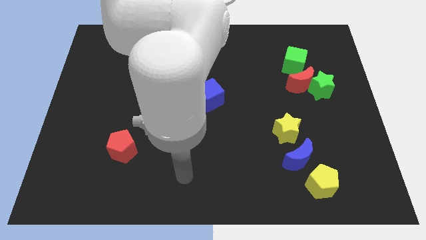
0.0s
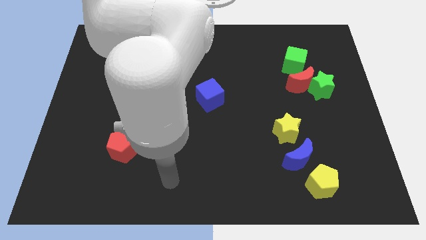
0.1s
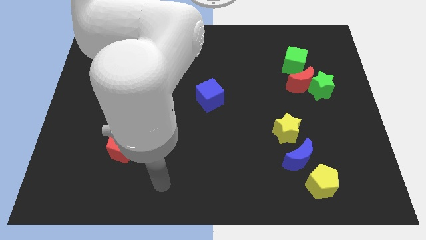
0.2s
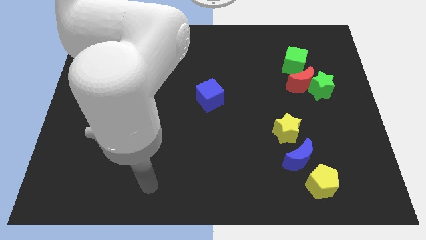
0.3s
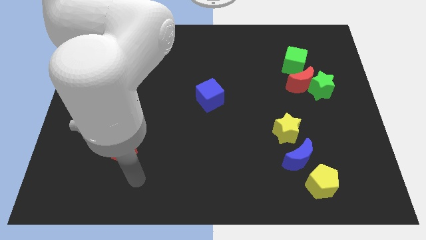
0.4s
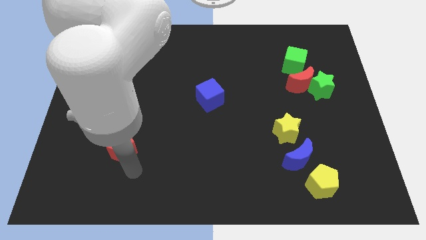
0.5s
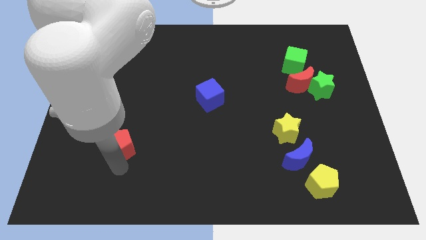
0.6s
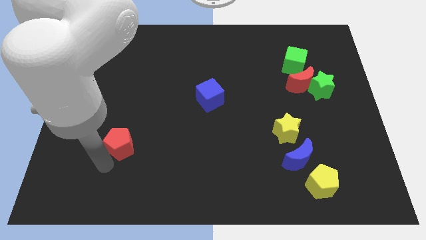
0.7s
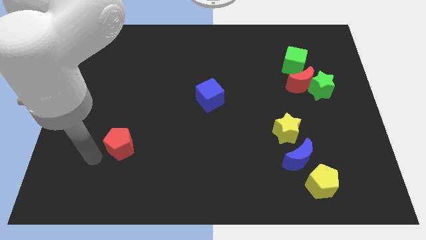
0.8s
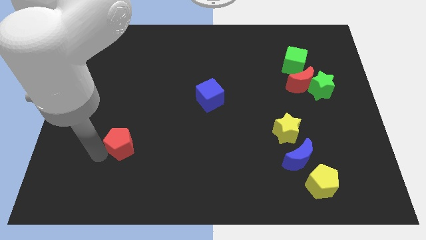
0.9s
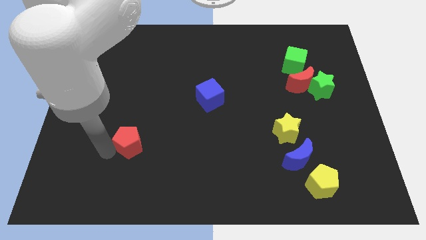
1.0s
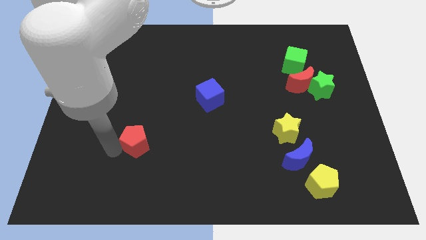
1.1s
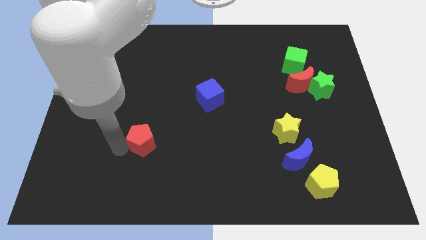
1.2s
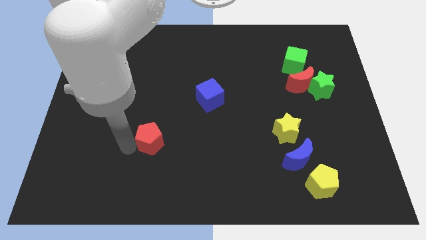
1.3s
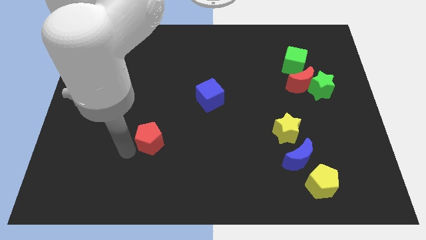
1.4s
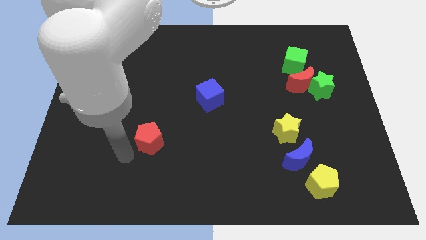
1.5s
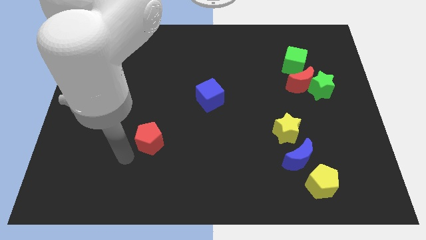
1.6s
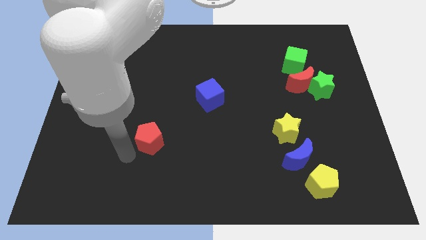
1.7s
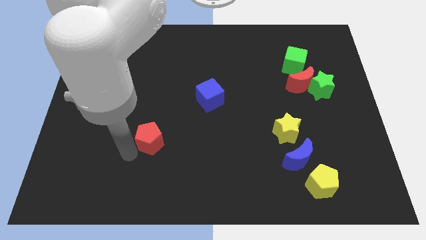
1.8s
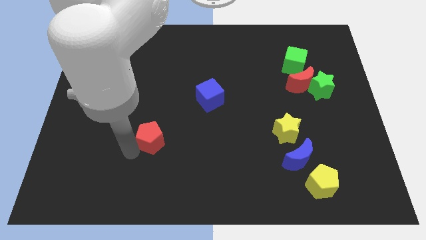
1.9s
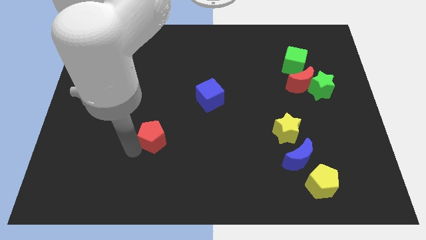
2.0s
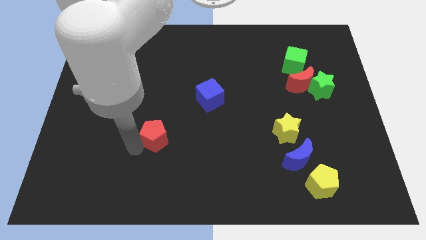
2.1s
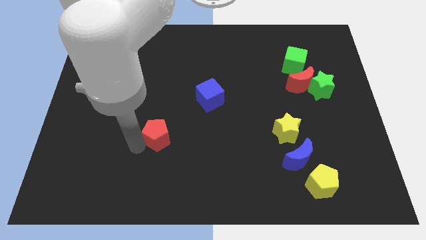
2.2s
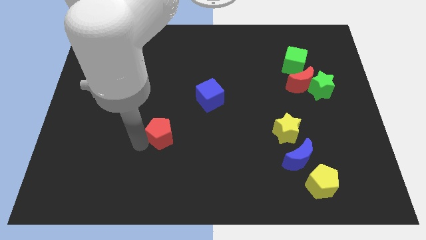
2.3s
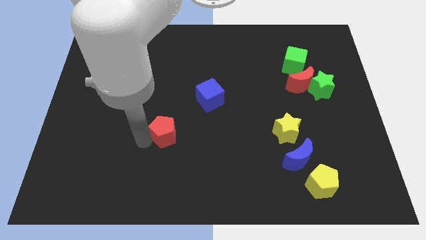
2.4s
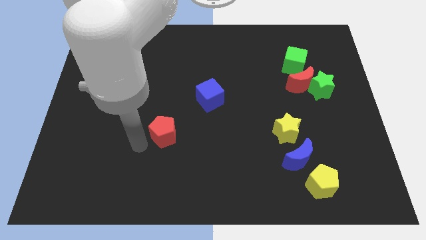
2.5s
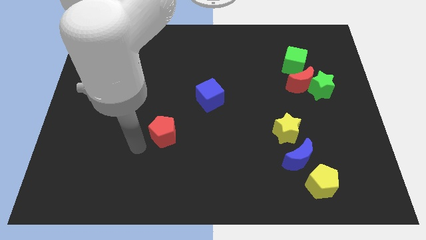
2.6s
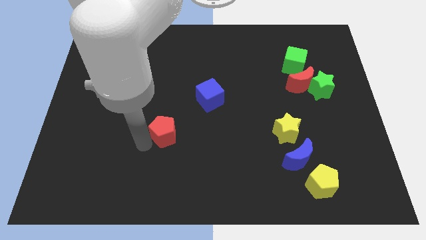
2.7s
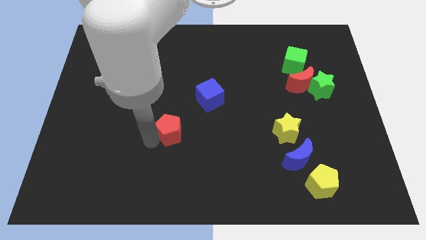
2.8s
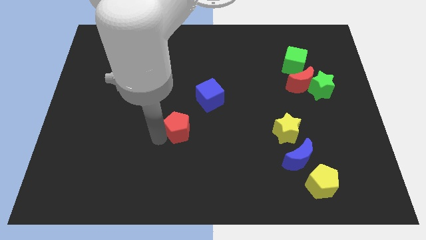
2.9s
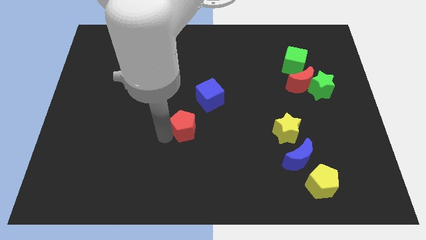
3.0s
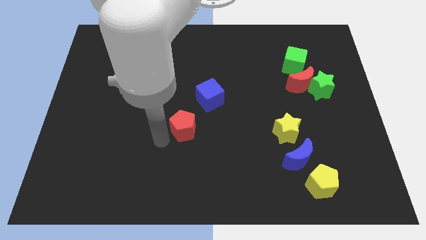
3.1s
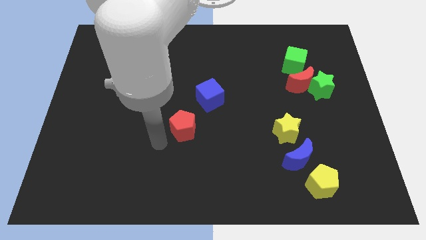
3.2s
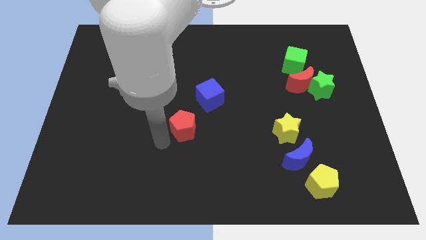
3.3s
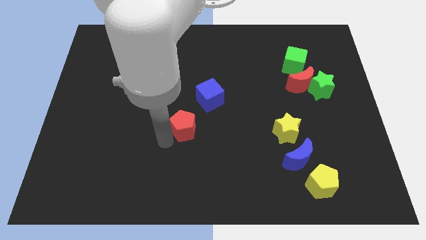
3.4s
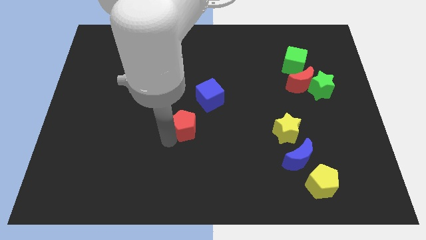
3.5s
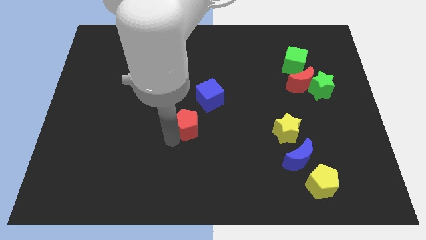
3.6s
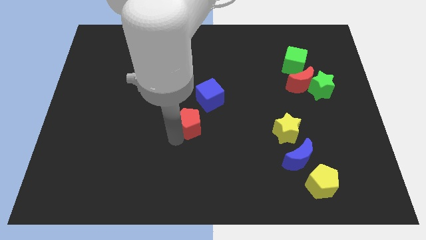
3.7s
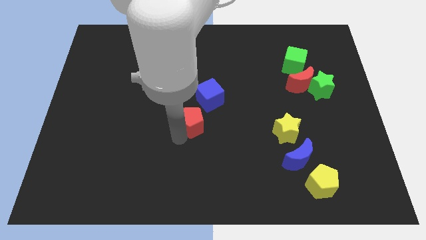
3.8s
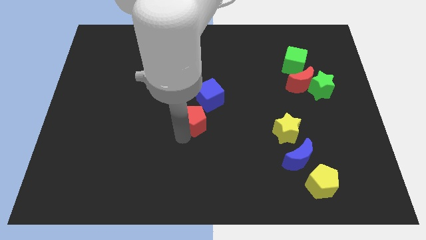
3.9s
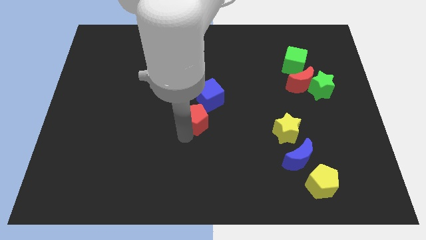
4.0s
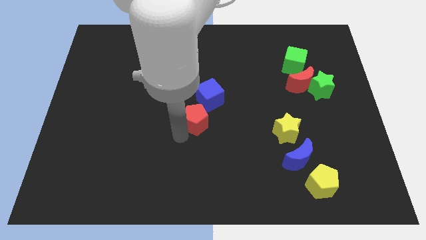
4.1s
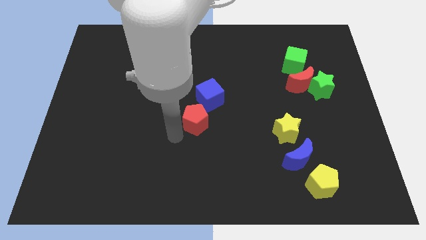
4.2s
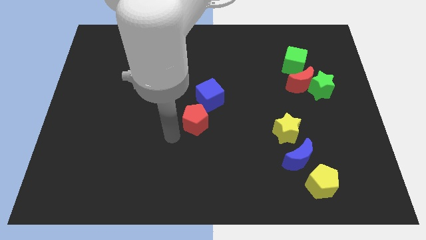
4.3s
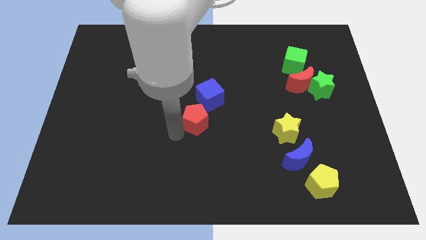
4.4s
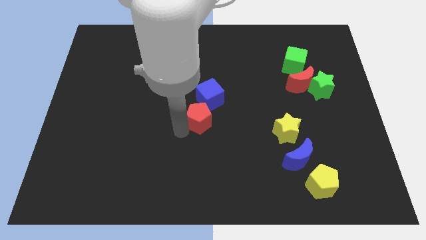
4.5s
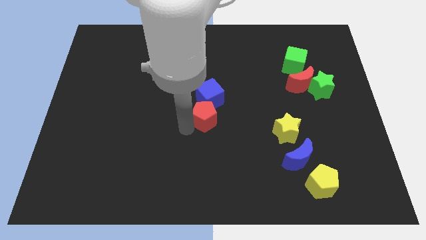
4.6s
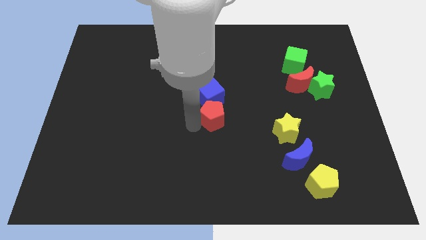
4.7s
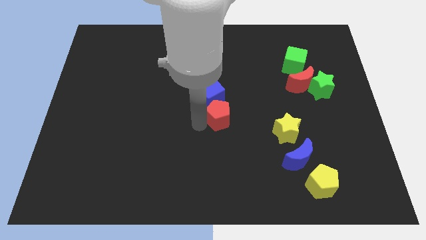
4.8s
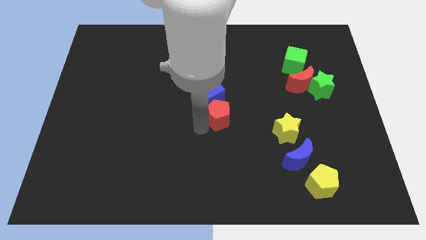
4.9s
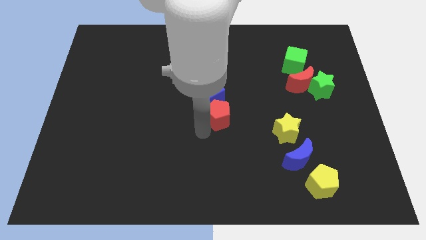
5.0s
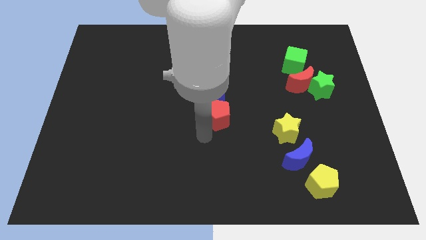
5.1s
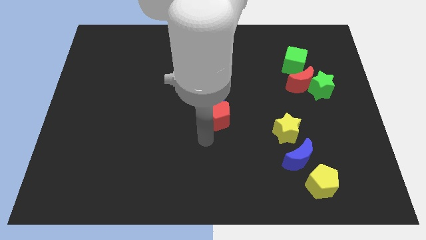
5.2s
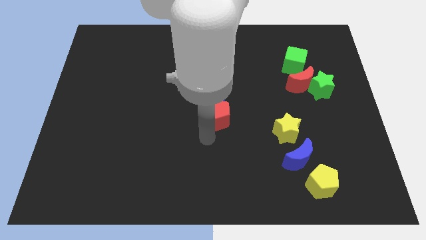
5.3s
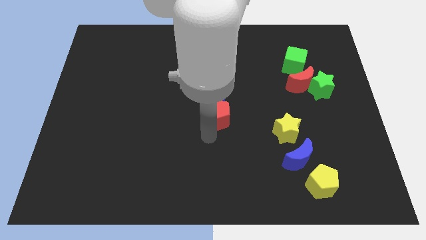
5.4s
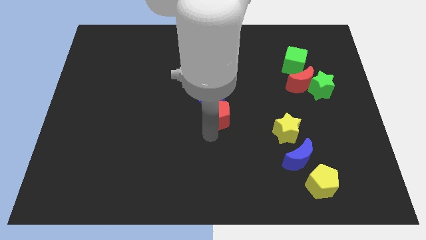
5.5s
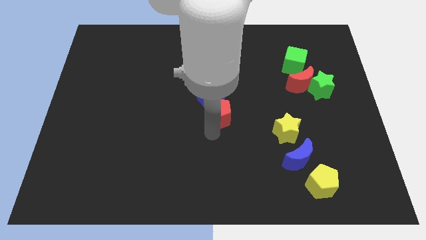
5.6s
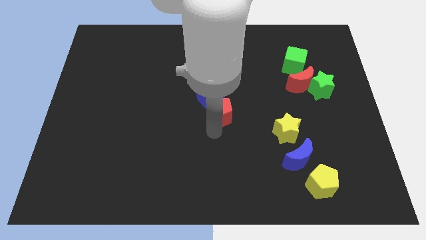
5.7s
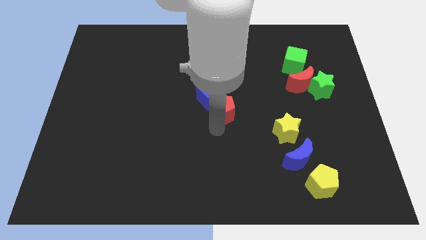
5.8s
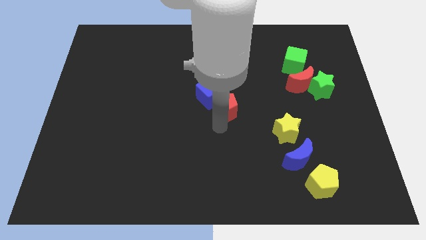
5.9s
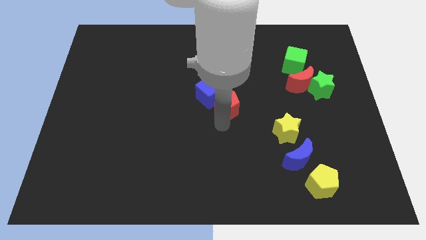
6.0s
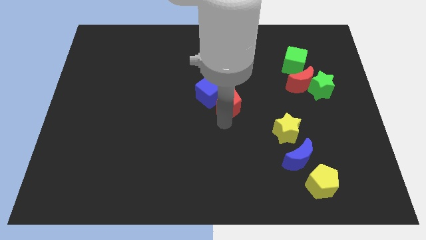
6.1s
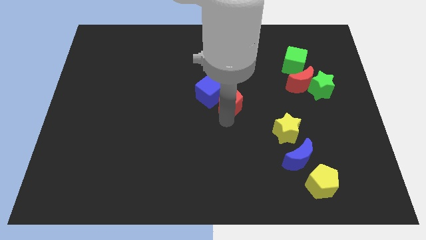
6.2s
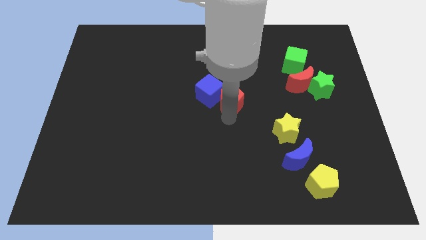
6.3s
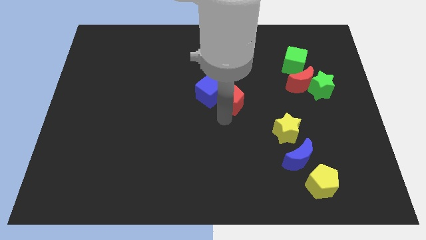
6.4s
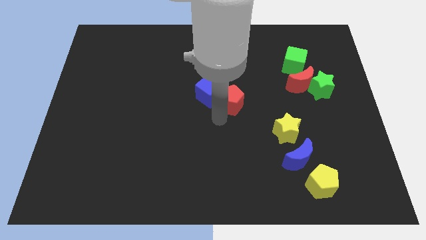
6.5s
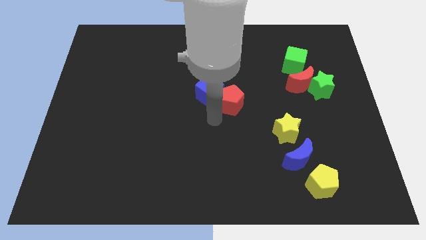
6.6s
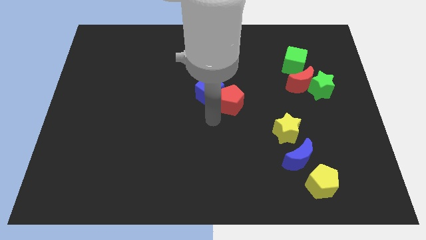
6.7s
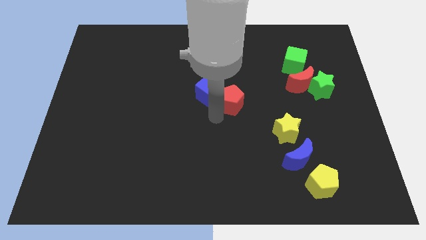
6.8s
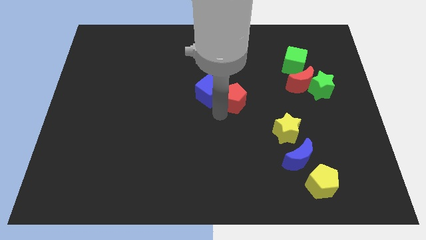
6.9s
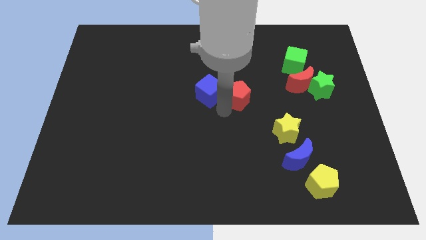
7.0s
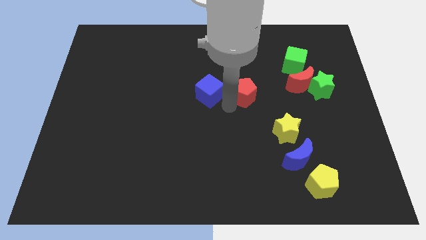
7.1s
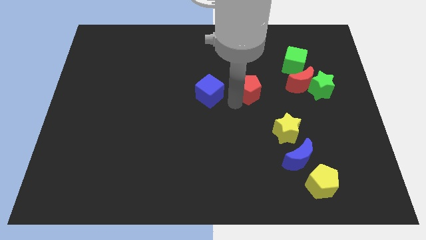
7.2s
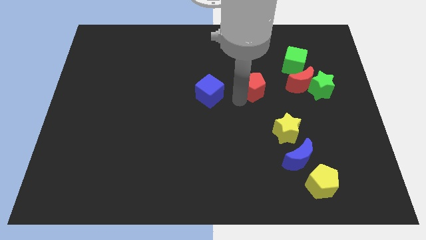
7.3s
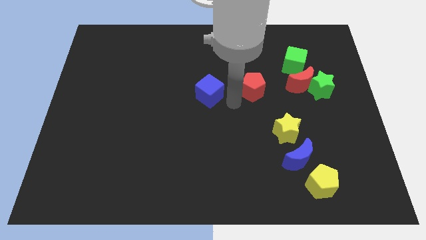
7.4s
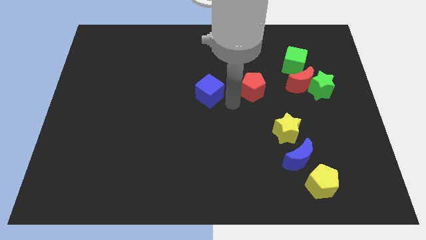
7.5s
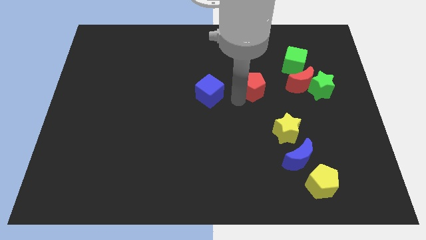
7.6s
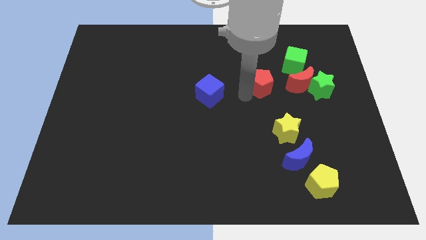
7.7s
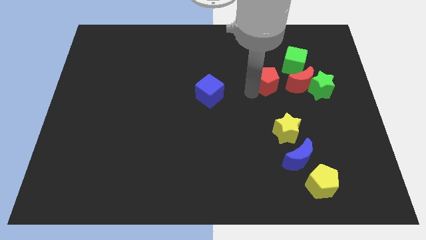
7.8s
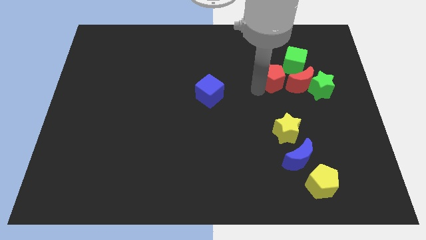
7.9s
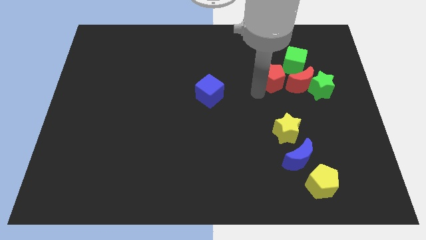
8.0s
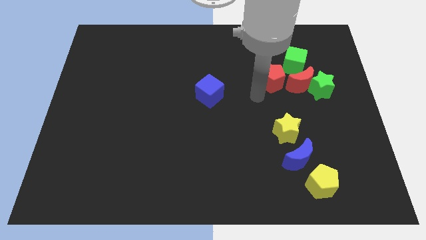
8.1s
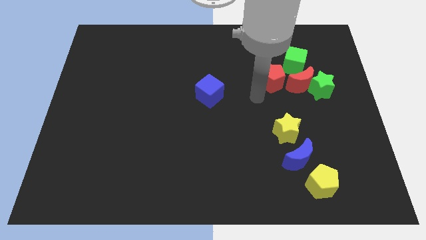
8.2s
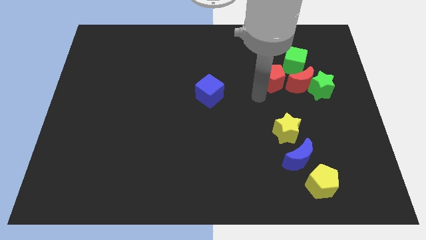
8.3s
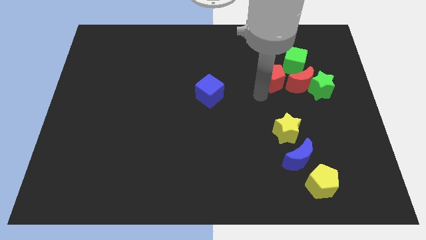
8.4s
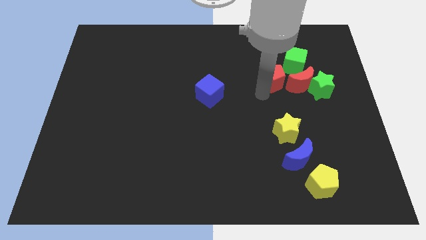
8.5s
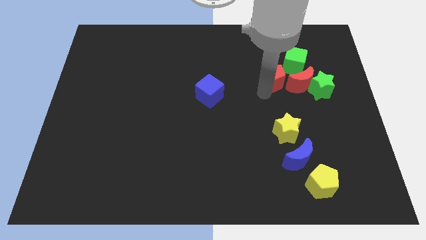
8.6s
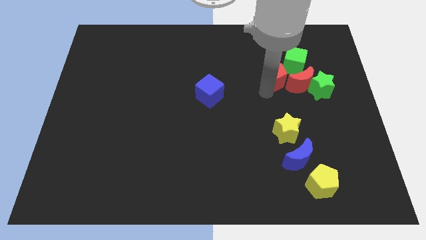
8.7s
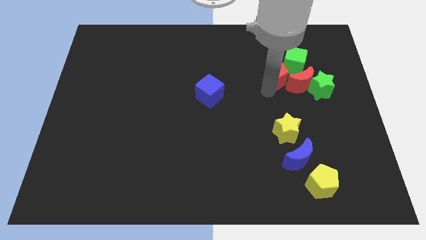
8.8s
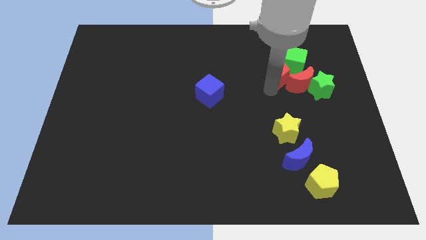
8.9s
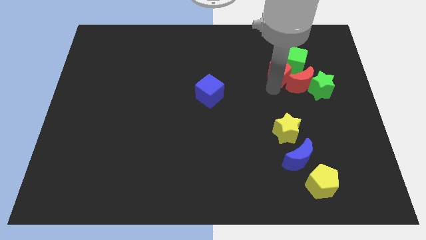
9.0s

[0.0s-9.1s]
slide the red pentagon close to the green cube
